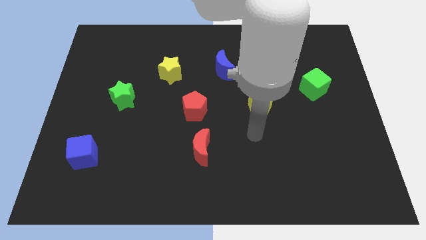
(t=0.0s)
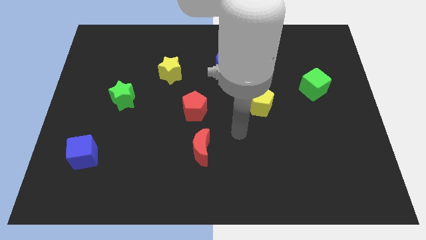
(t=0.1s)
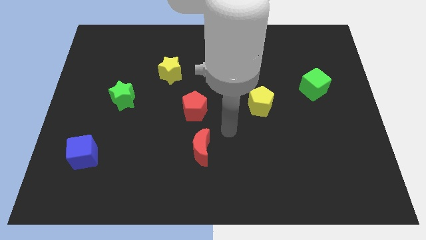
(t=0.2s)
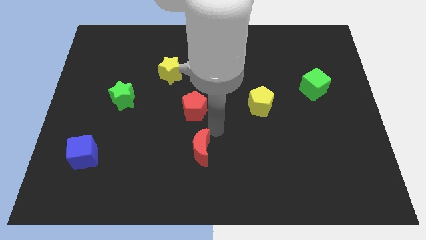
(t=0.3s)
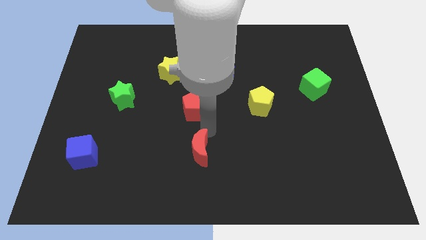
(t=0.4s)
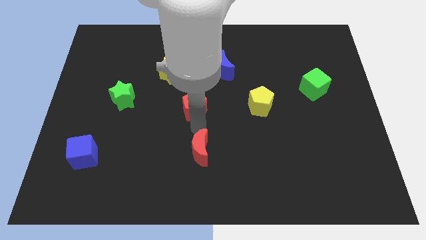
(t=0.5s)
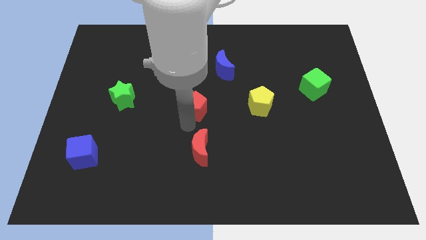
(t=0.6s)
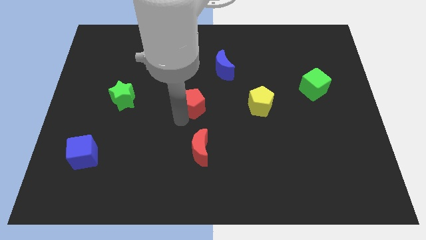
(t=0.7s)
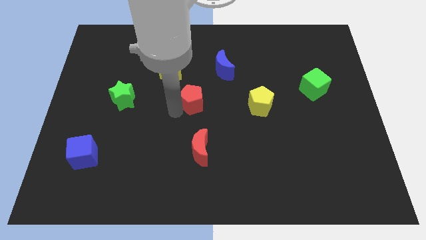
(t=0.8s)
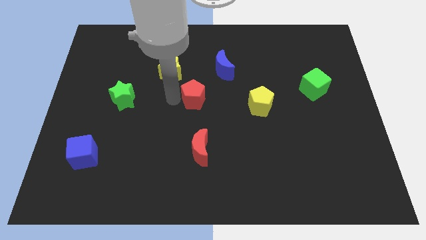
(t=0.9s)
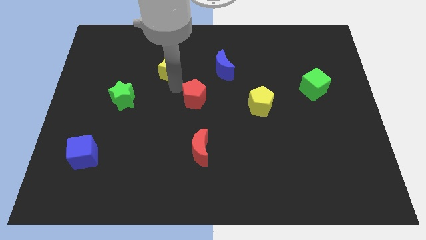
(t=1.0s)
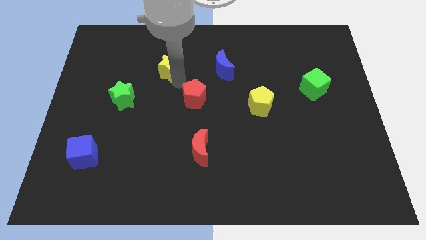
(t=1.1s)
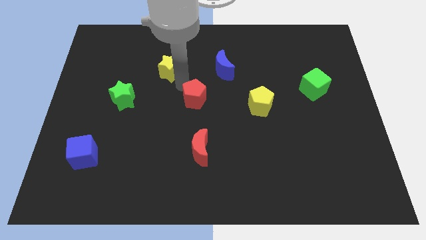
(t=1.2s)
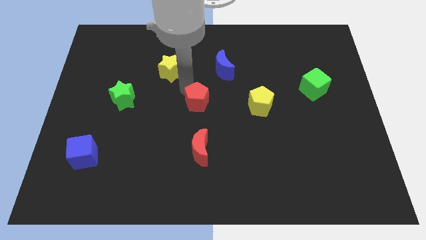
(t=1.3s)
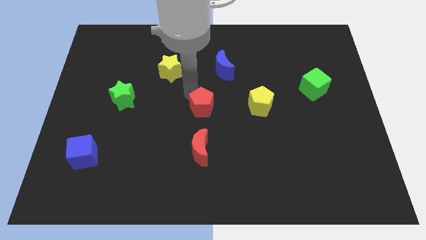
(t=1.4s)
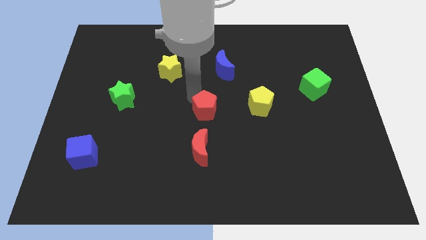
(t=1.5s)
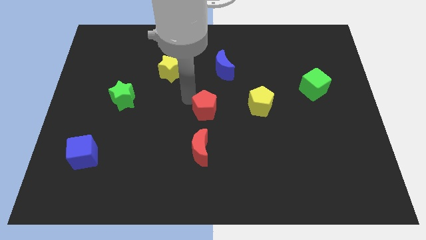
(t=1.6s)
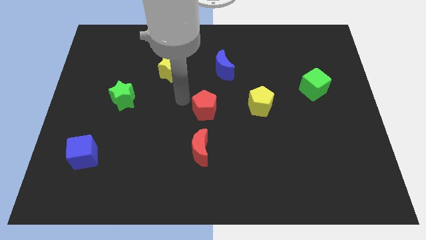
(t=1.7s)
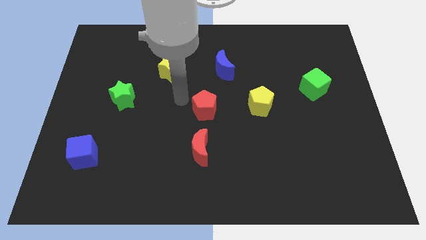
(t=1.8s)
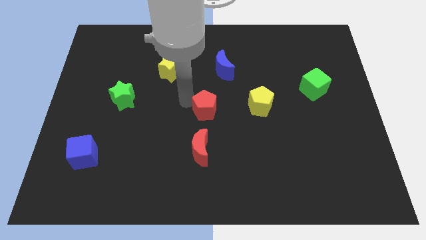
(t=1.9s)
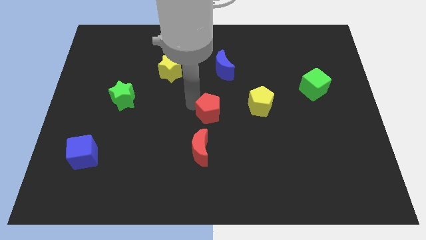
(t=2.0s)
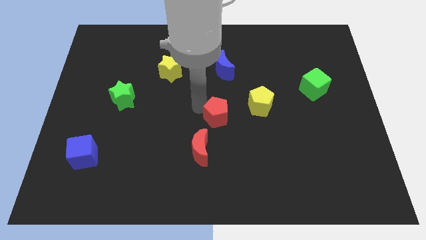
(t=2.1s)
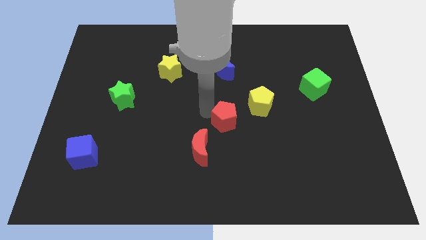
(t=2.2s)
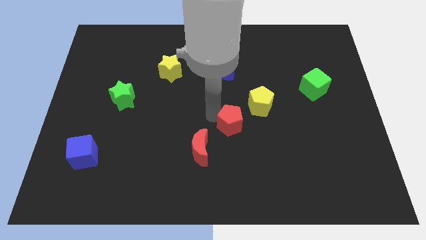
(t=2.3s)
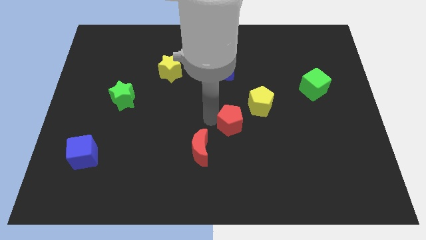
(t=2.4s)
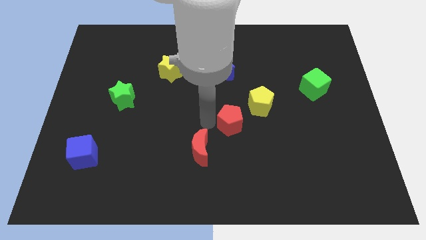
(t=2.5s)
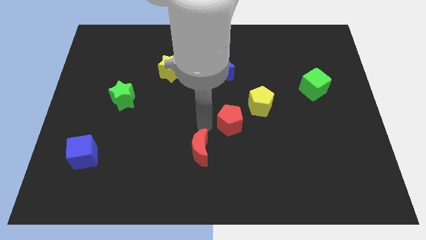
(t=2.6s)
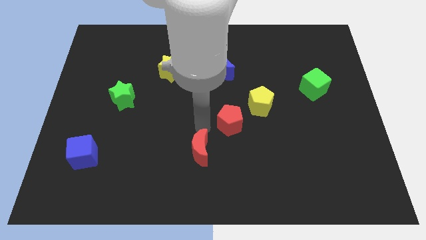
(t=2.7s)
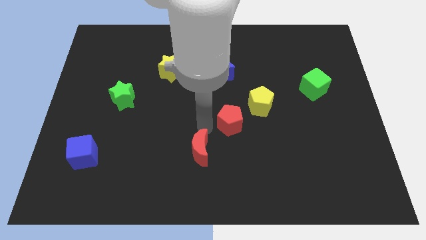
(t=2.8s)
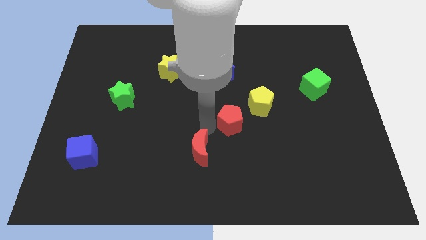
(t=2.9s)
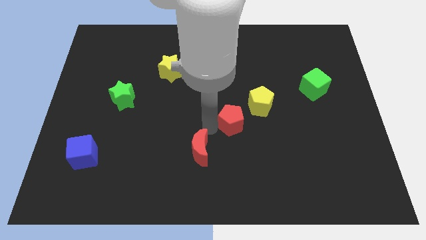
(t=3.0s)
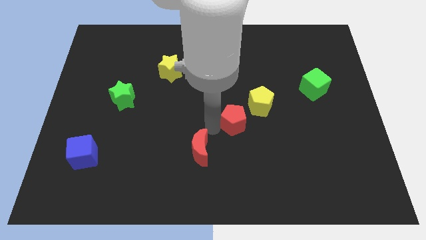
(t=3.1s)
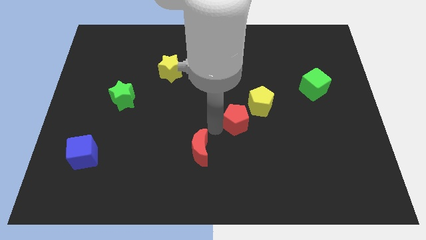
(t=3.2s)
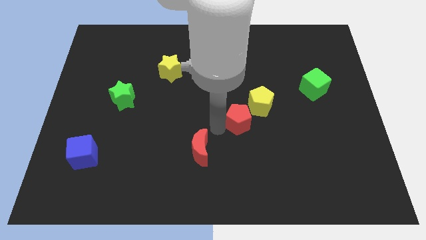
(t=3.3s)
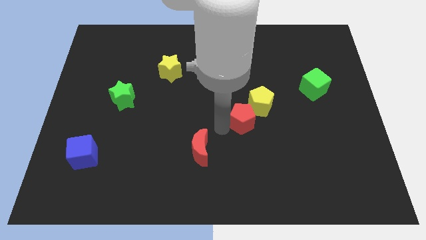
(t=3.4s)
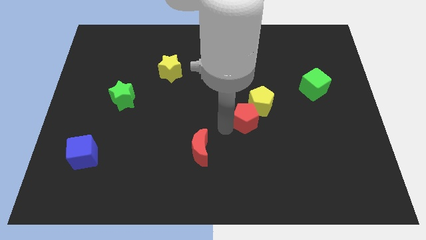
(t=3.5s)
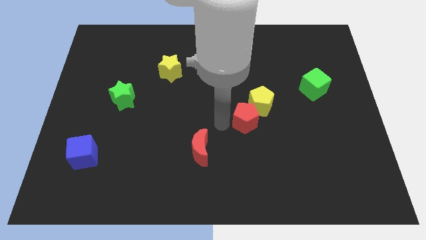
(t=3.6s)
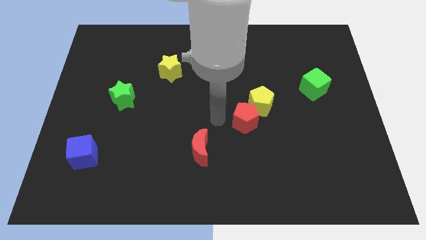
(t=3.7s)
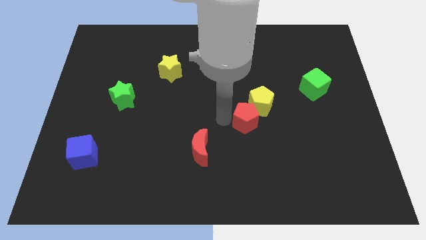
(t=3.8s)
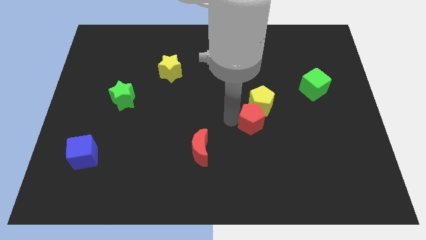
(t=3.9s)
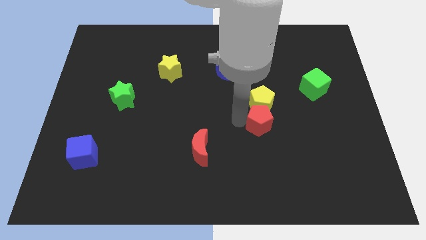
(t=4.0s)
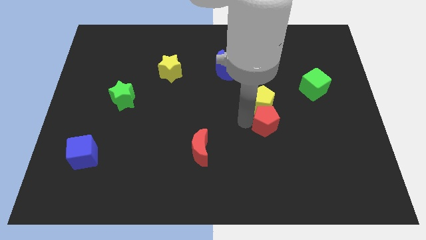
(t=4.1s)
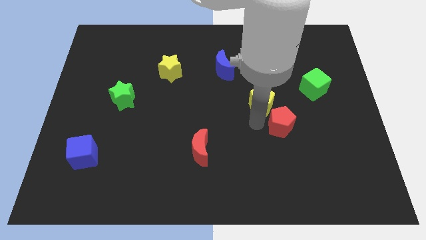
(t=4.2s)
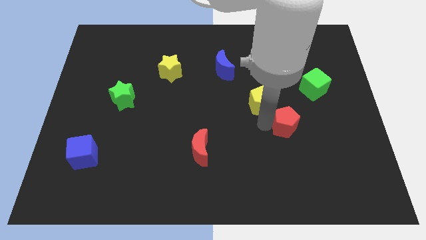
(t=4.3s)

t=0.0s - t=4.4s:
move the red pentagon right

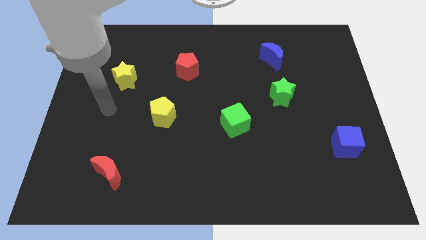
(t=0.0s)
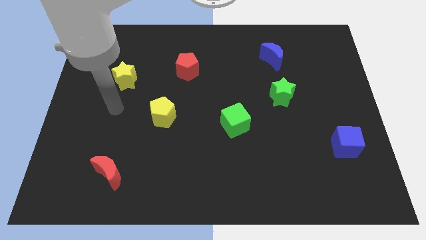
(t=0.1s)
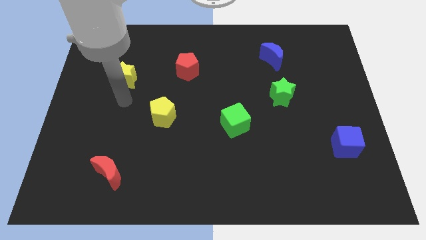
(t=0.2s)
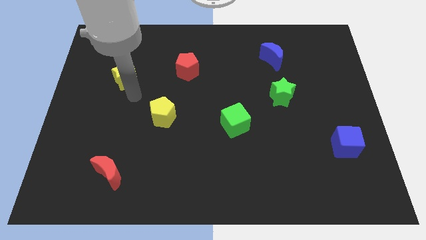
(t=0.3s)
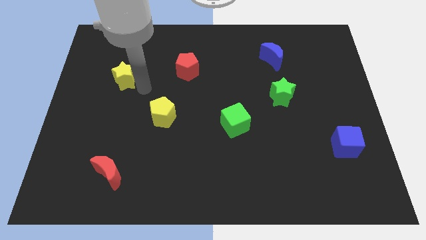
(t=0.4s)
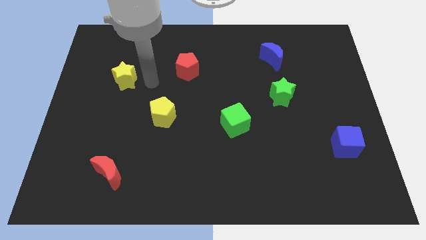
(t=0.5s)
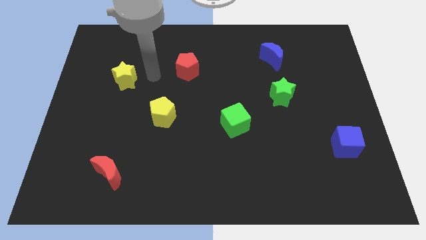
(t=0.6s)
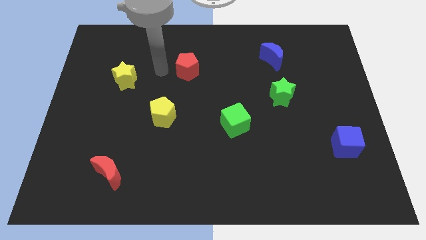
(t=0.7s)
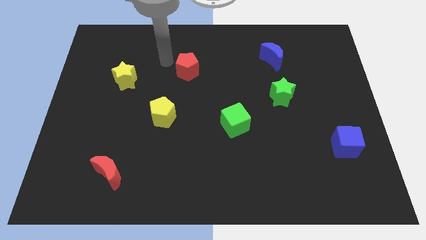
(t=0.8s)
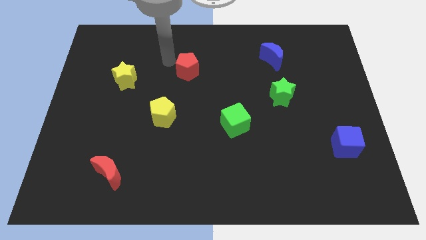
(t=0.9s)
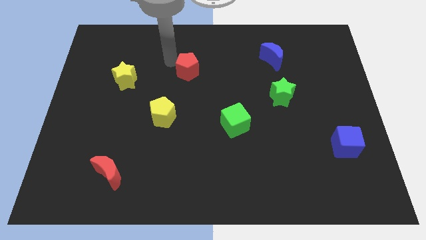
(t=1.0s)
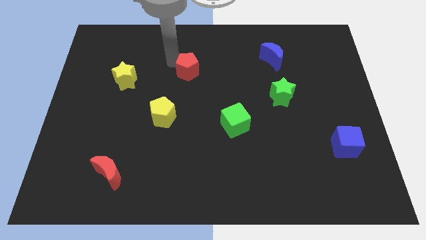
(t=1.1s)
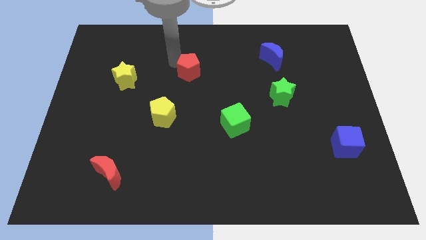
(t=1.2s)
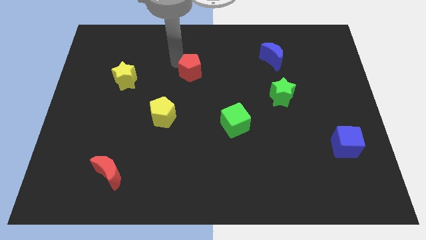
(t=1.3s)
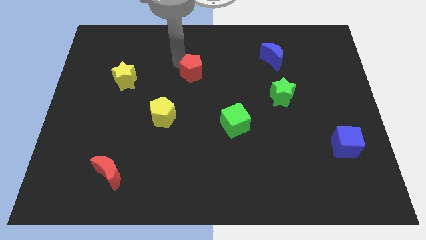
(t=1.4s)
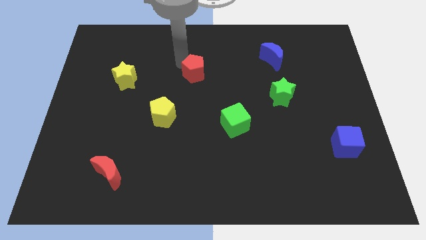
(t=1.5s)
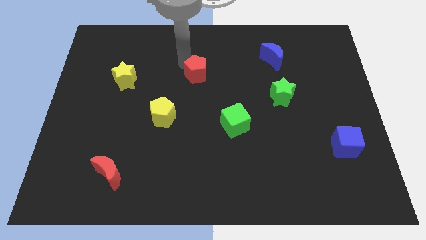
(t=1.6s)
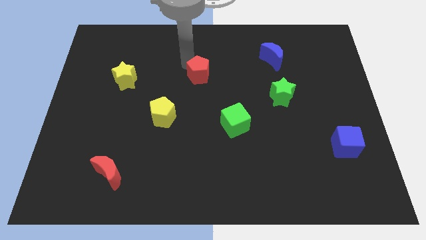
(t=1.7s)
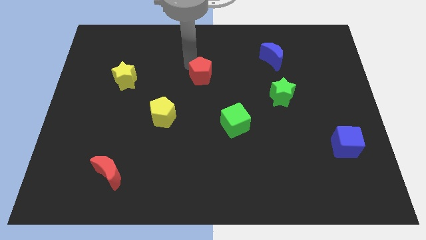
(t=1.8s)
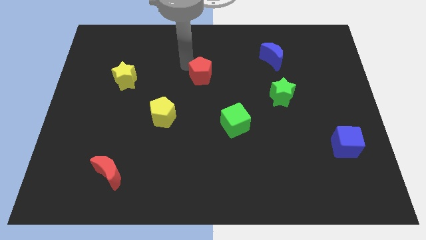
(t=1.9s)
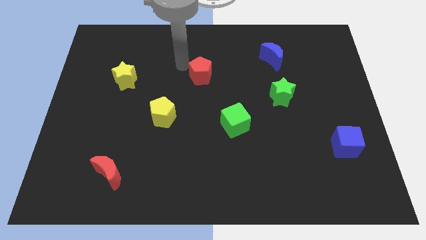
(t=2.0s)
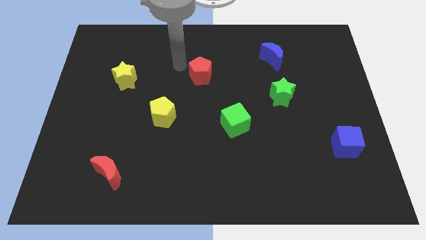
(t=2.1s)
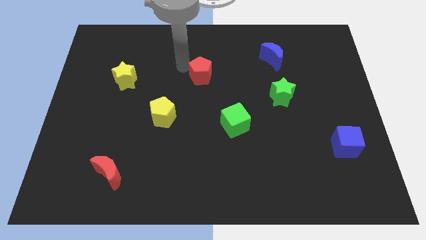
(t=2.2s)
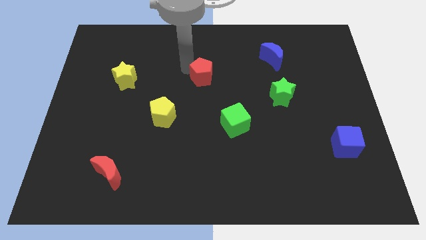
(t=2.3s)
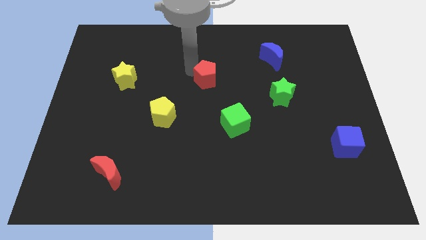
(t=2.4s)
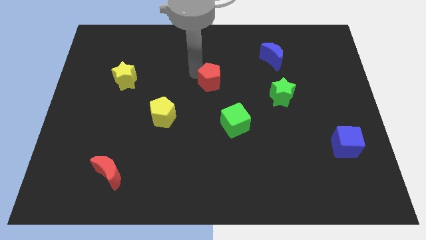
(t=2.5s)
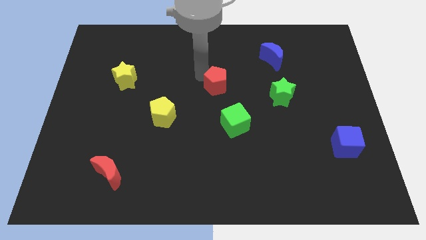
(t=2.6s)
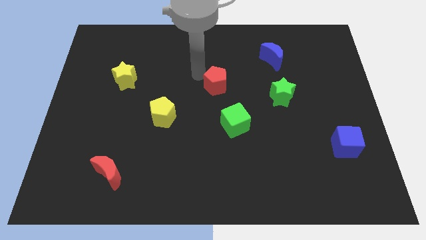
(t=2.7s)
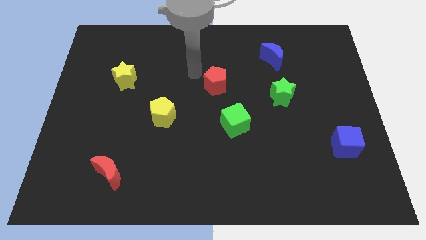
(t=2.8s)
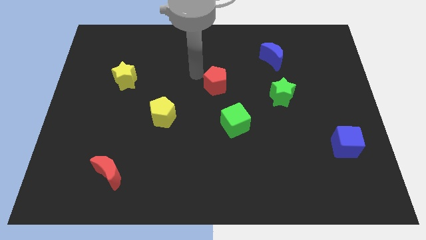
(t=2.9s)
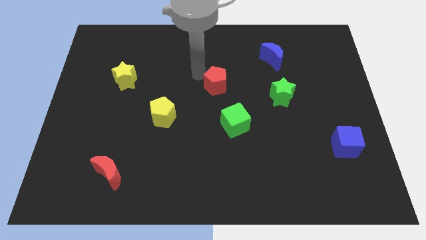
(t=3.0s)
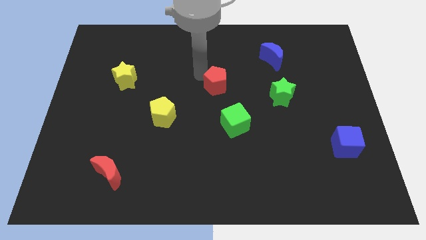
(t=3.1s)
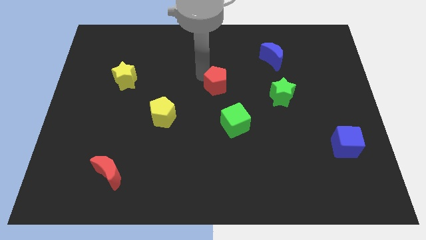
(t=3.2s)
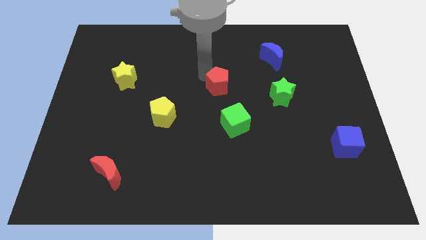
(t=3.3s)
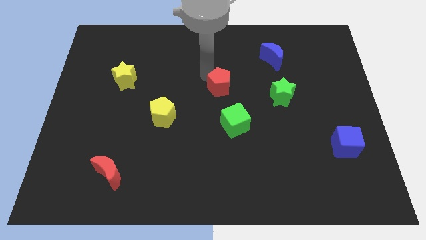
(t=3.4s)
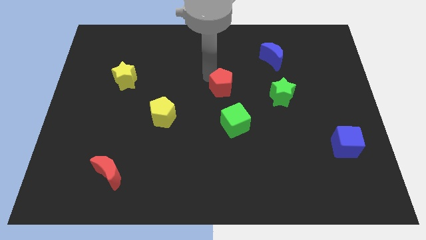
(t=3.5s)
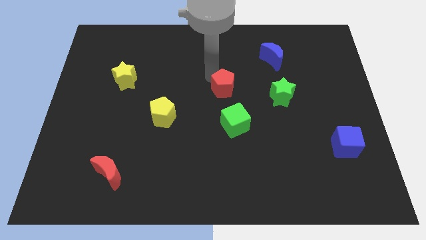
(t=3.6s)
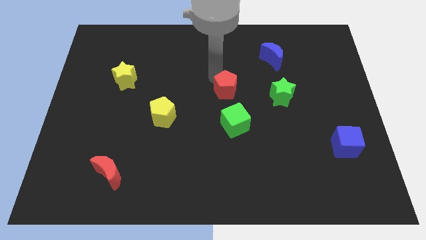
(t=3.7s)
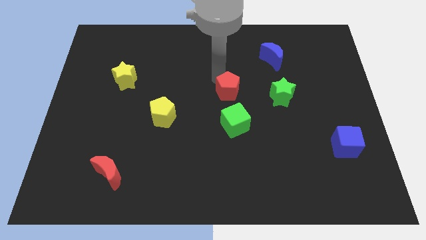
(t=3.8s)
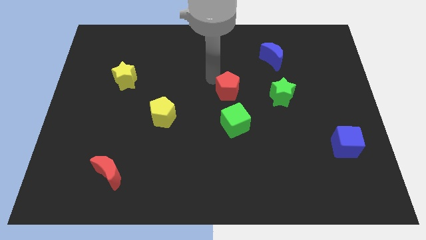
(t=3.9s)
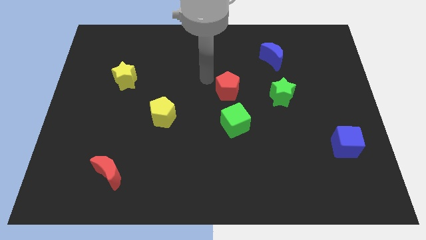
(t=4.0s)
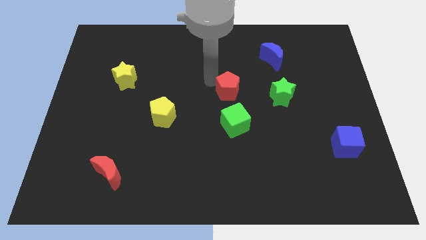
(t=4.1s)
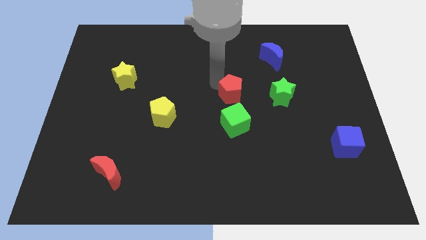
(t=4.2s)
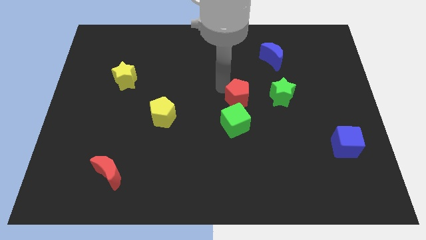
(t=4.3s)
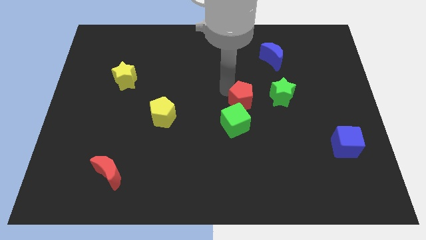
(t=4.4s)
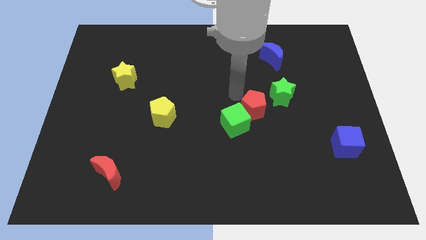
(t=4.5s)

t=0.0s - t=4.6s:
move the red pentagon diagonally down and right
